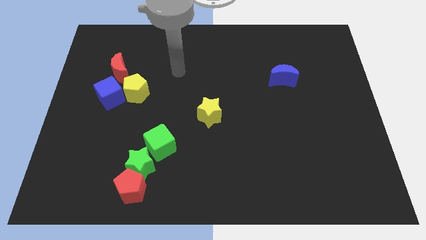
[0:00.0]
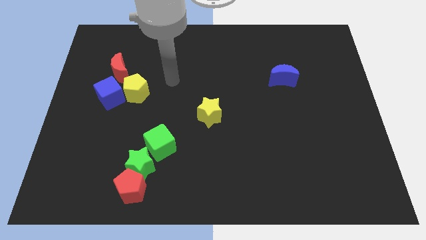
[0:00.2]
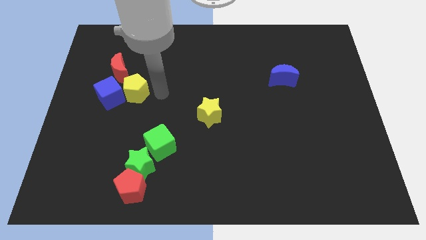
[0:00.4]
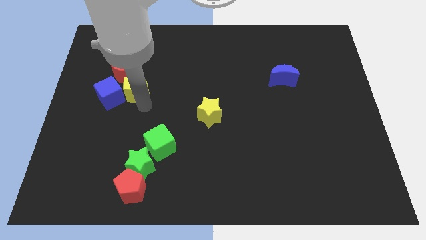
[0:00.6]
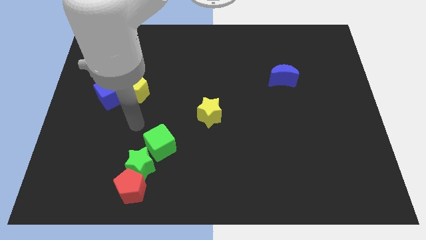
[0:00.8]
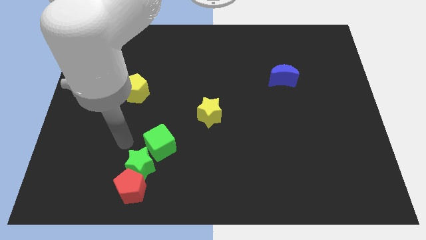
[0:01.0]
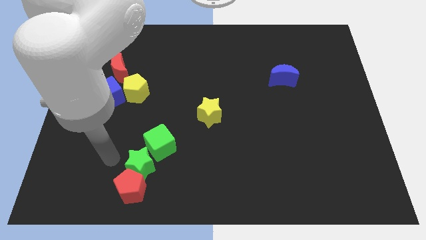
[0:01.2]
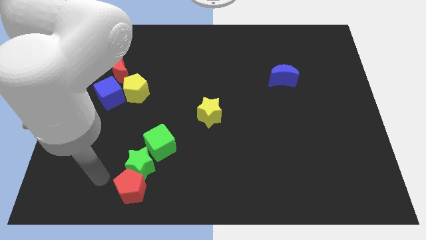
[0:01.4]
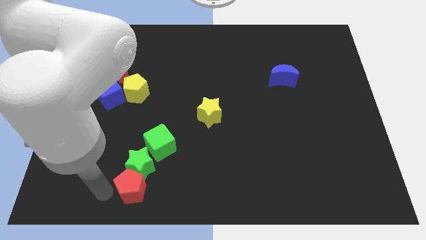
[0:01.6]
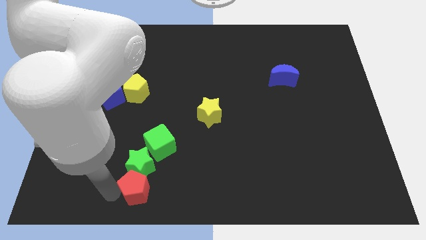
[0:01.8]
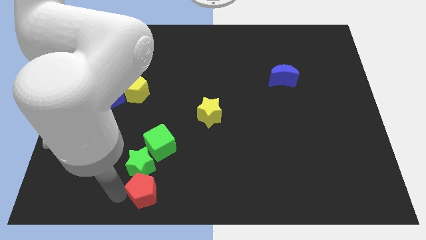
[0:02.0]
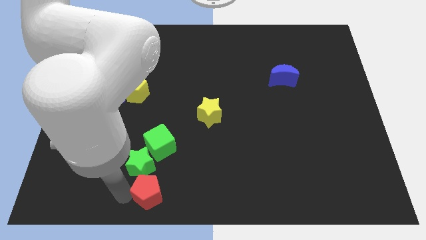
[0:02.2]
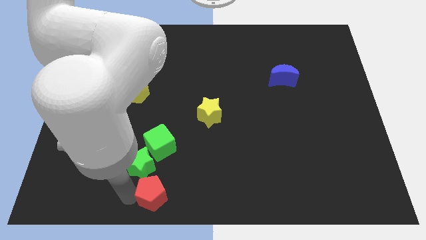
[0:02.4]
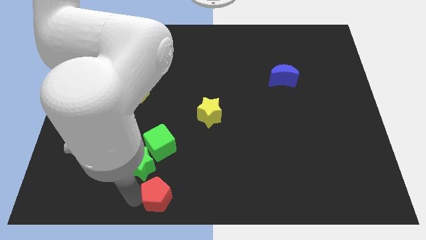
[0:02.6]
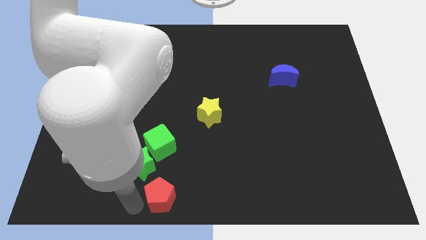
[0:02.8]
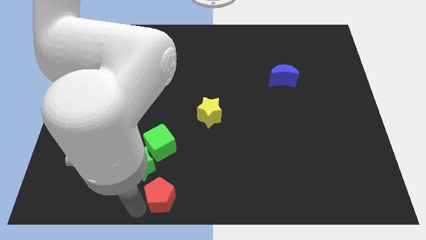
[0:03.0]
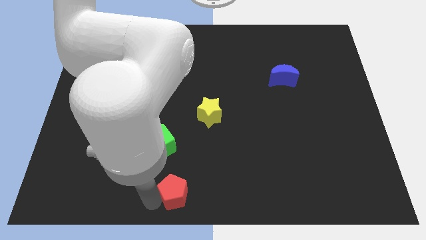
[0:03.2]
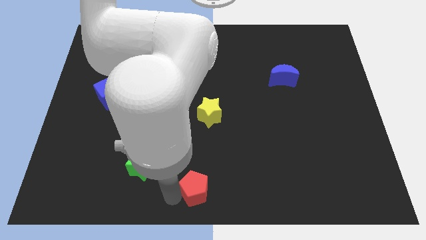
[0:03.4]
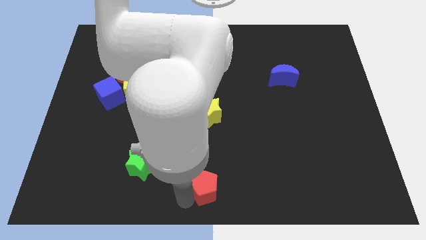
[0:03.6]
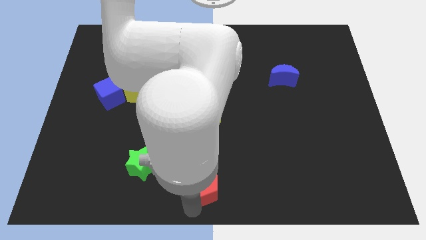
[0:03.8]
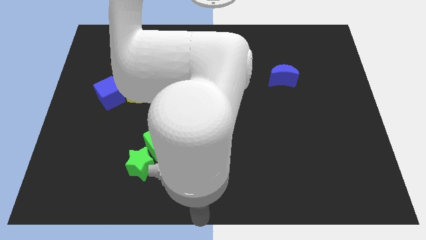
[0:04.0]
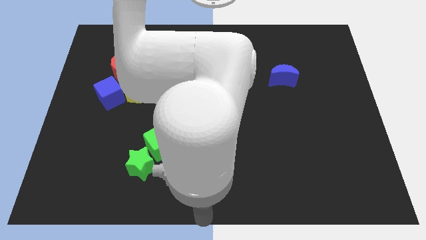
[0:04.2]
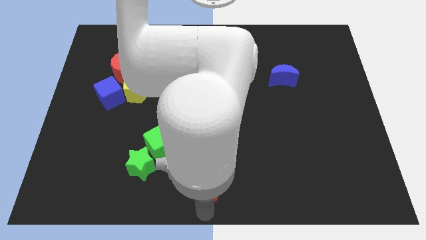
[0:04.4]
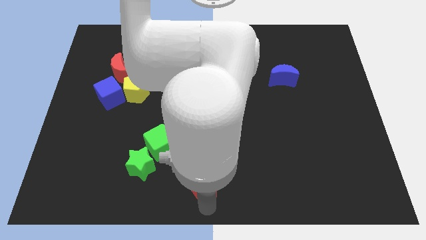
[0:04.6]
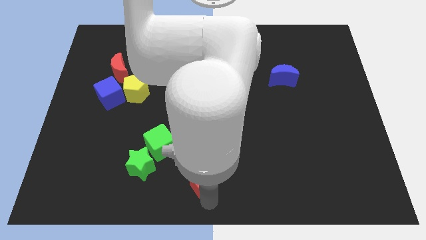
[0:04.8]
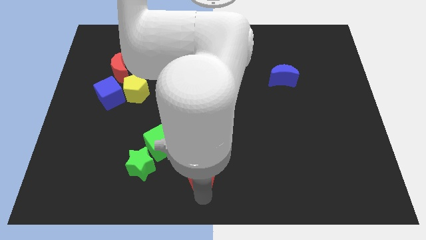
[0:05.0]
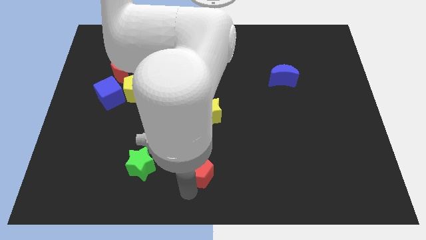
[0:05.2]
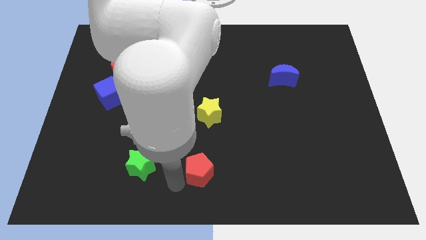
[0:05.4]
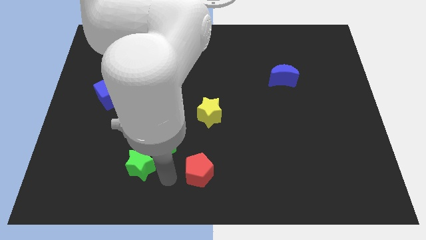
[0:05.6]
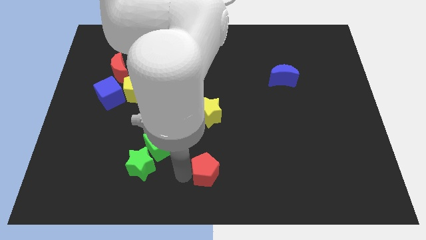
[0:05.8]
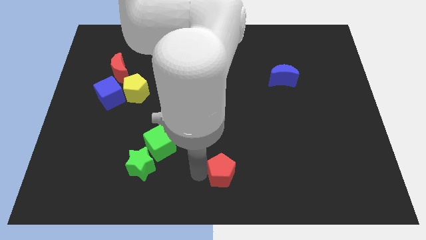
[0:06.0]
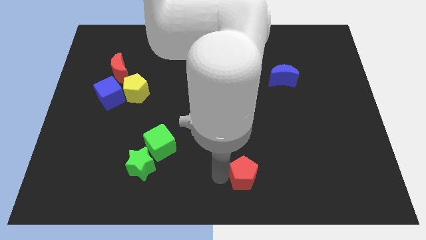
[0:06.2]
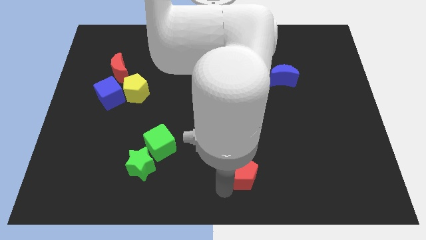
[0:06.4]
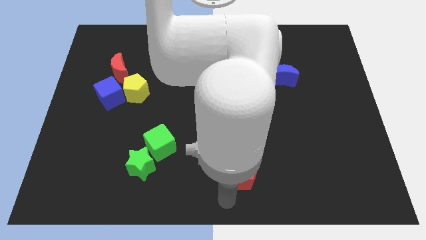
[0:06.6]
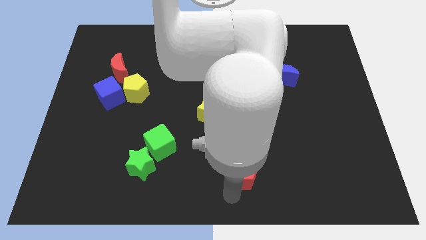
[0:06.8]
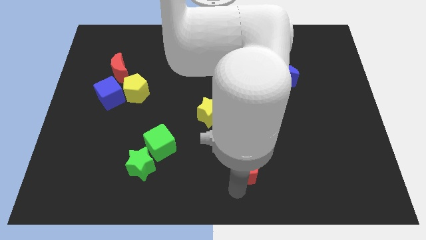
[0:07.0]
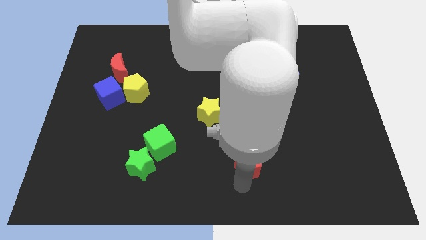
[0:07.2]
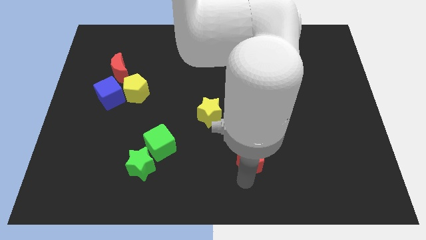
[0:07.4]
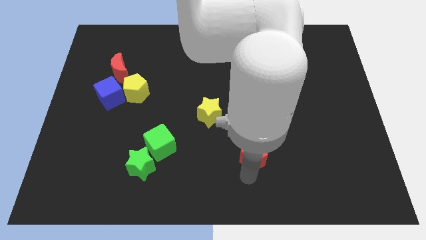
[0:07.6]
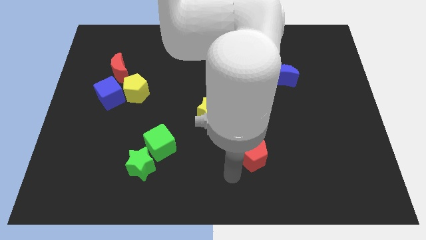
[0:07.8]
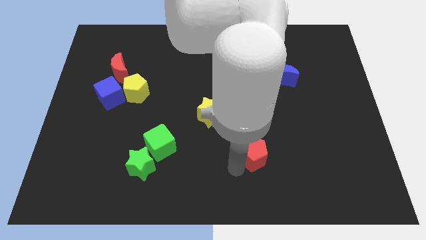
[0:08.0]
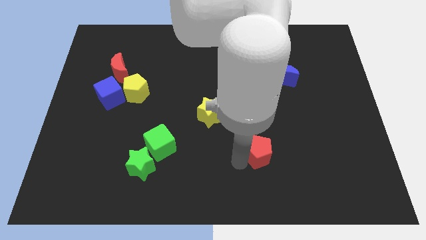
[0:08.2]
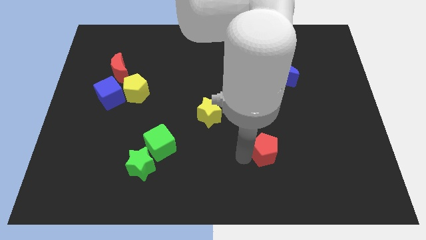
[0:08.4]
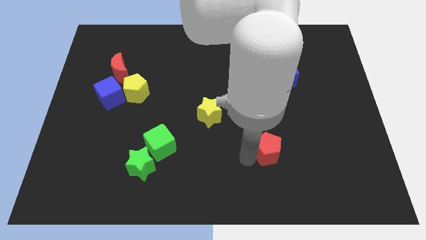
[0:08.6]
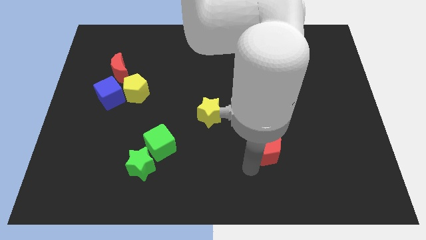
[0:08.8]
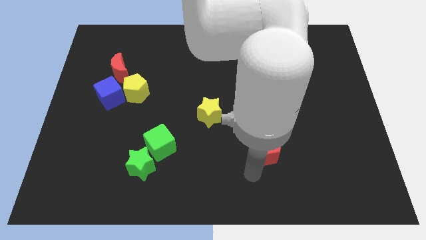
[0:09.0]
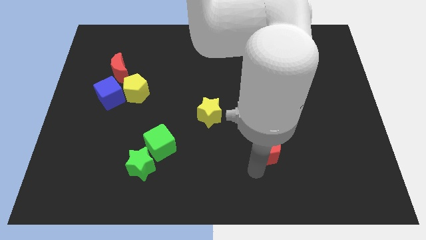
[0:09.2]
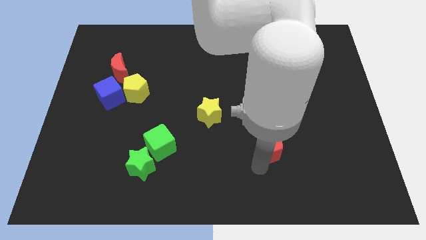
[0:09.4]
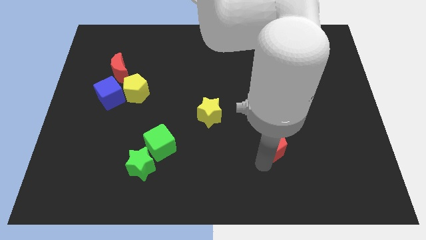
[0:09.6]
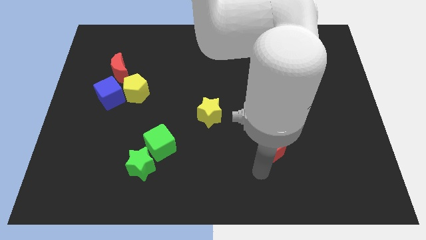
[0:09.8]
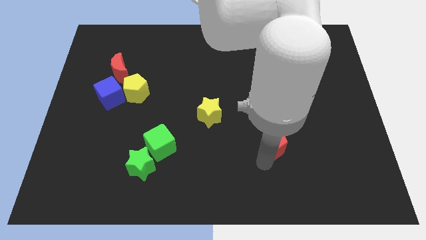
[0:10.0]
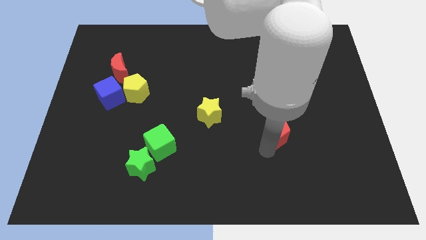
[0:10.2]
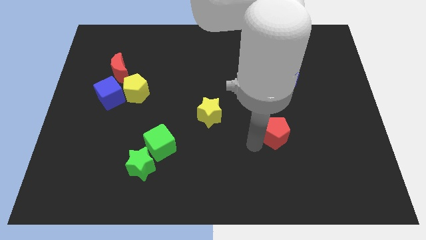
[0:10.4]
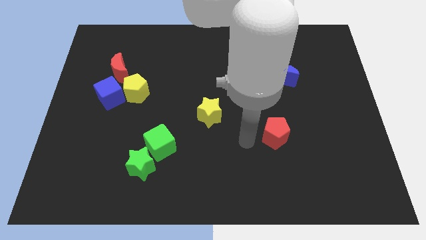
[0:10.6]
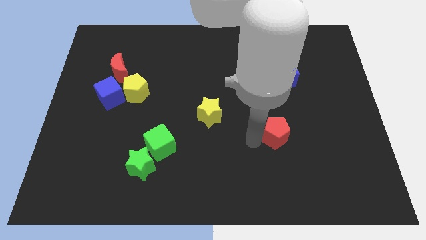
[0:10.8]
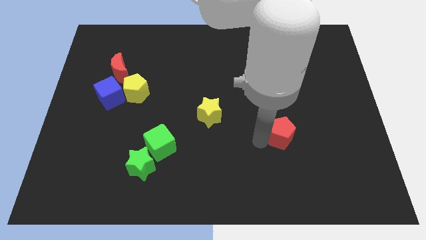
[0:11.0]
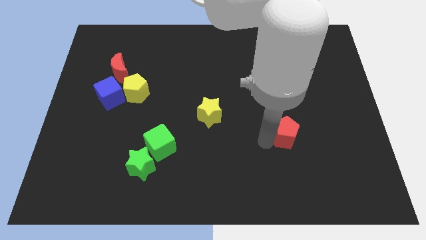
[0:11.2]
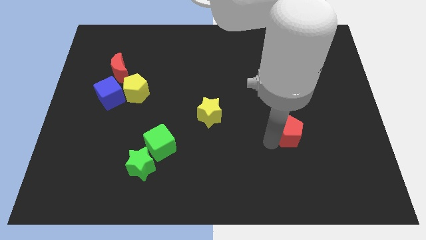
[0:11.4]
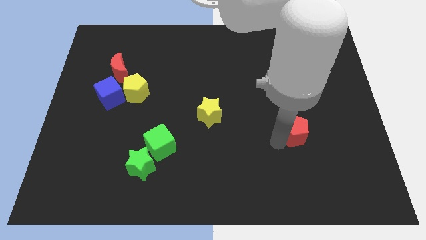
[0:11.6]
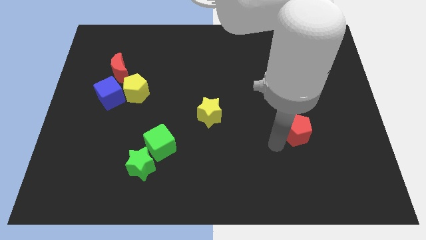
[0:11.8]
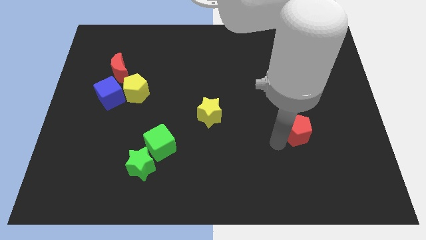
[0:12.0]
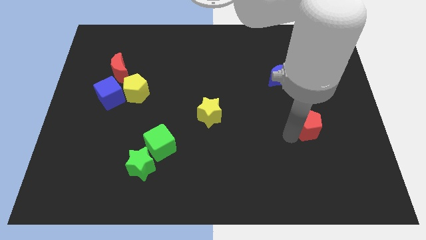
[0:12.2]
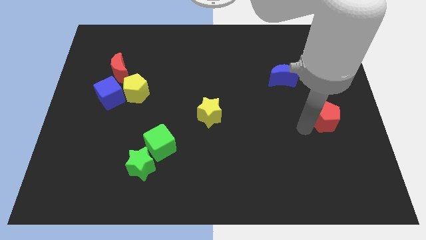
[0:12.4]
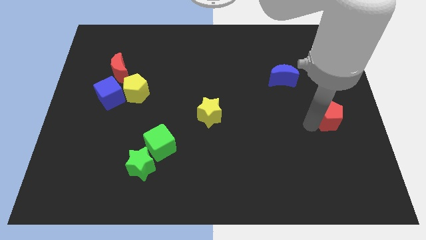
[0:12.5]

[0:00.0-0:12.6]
move the red pentagon to the right side
